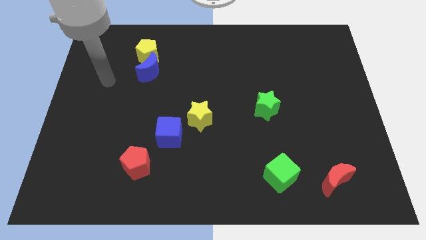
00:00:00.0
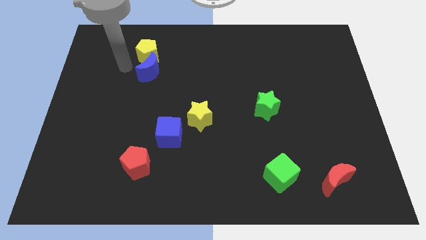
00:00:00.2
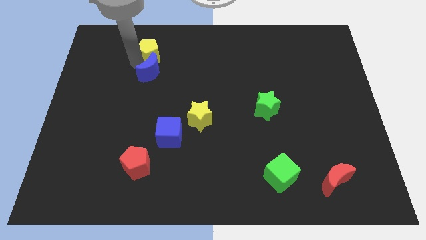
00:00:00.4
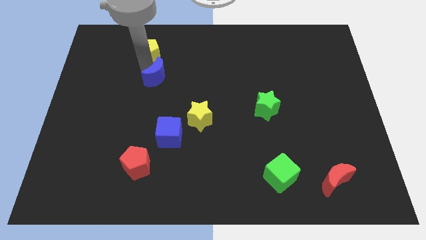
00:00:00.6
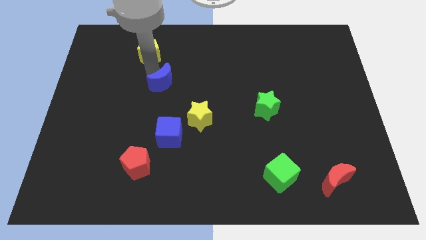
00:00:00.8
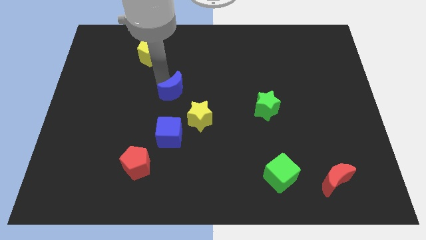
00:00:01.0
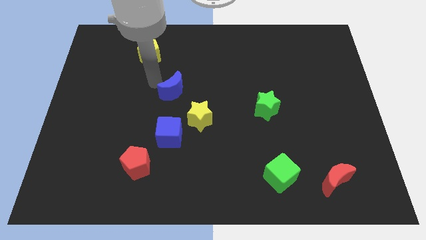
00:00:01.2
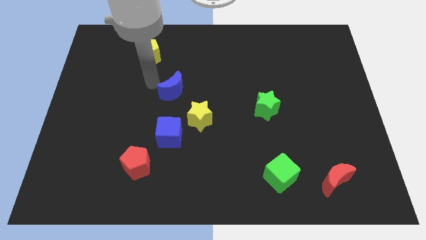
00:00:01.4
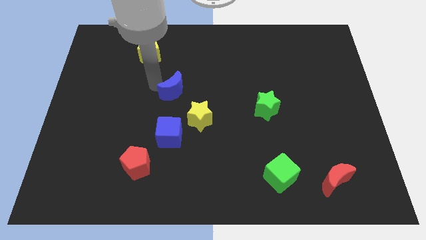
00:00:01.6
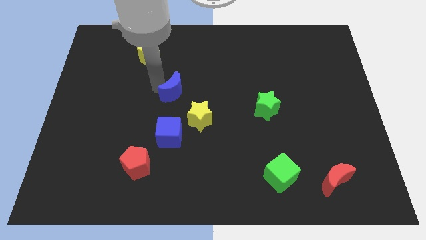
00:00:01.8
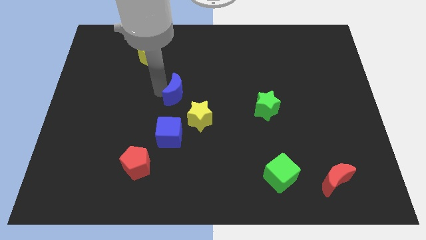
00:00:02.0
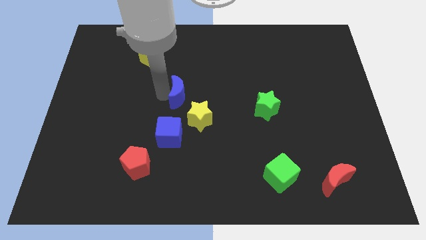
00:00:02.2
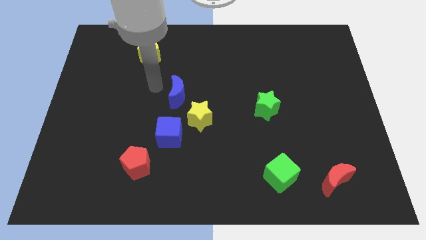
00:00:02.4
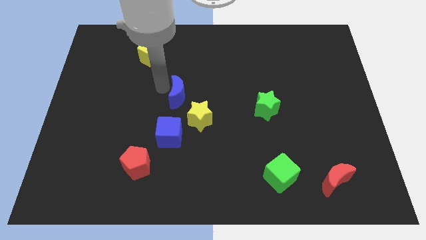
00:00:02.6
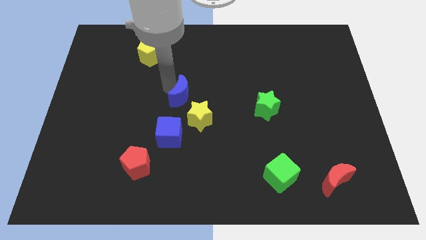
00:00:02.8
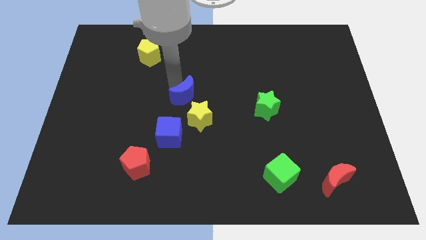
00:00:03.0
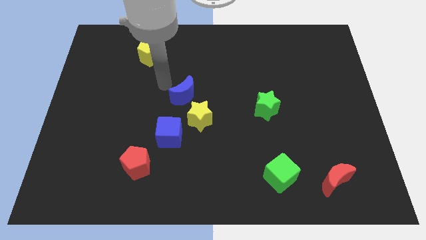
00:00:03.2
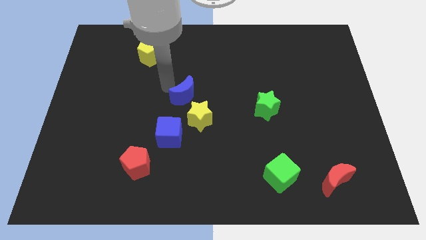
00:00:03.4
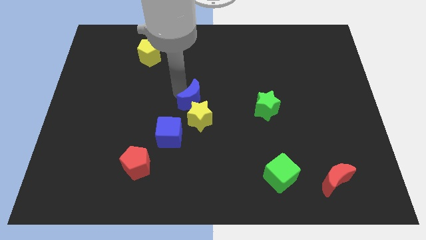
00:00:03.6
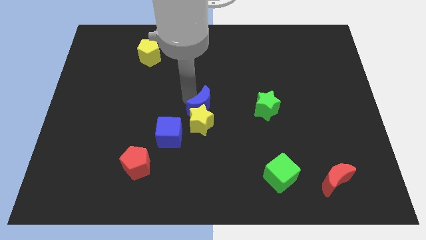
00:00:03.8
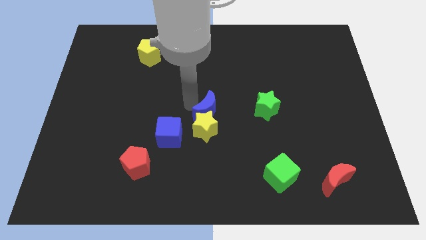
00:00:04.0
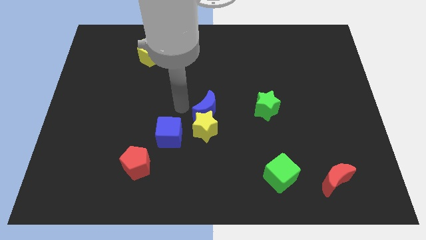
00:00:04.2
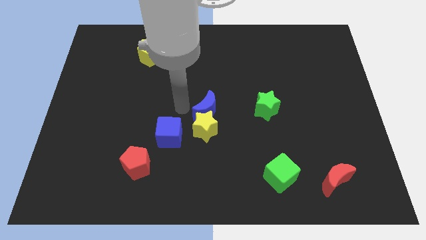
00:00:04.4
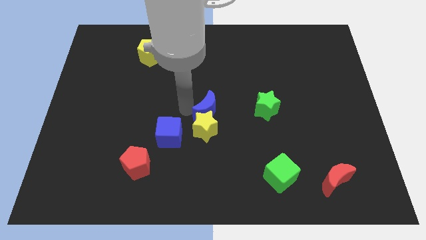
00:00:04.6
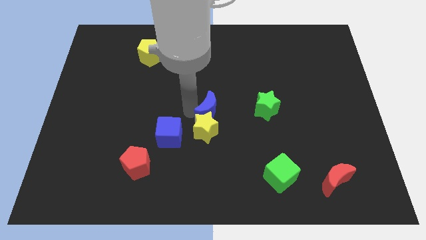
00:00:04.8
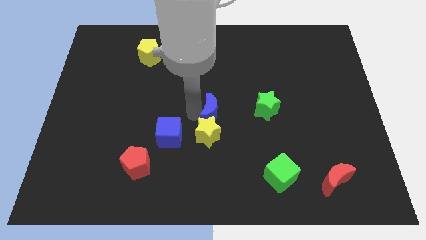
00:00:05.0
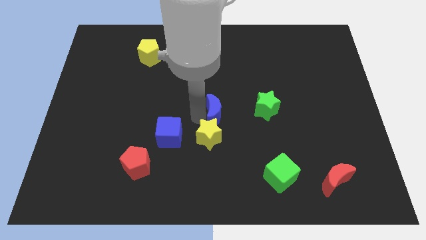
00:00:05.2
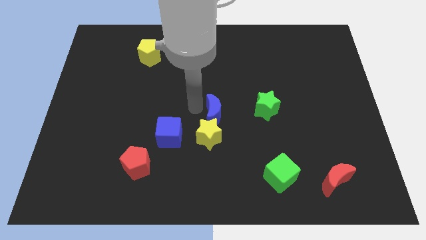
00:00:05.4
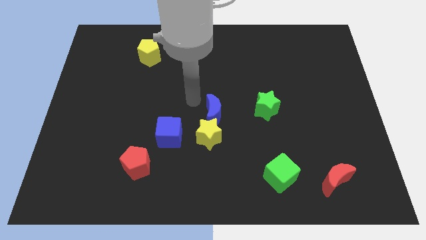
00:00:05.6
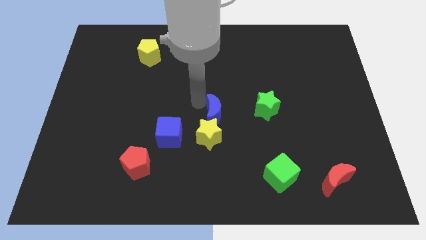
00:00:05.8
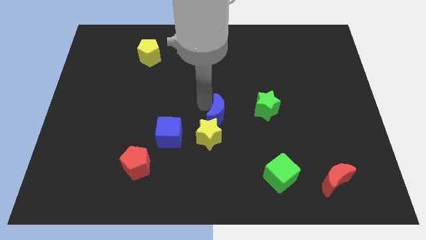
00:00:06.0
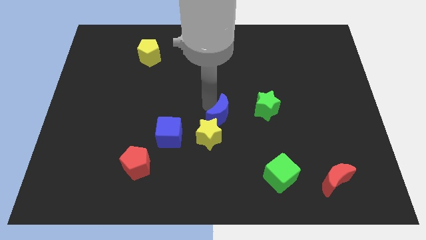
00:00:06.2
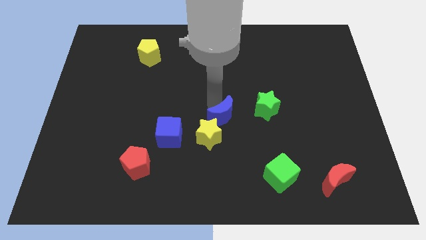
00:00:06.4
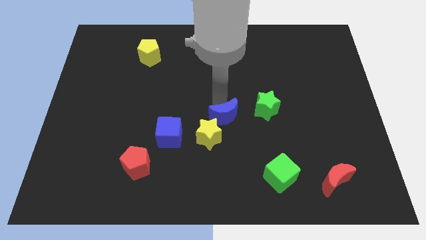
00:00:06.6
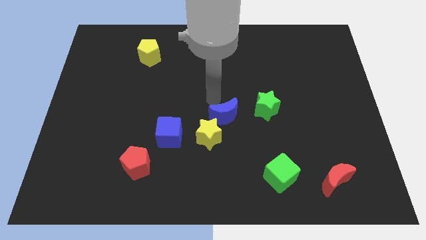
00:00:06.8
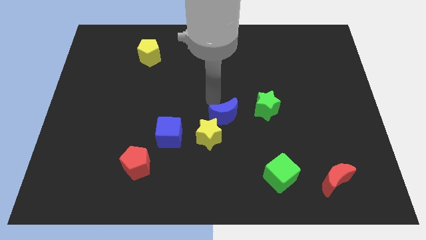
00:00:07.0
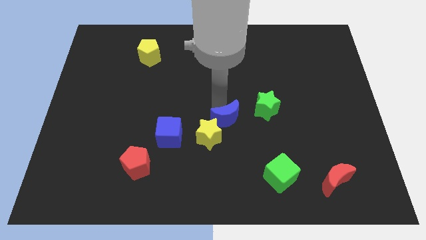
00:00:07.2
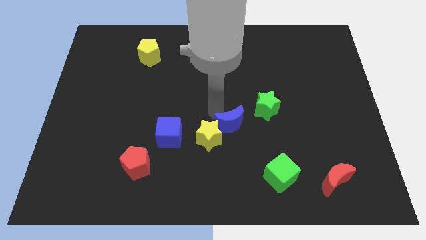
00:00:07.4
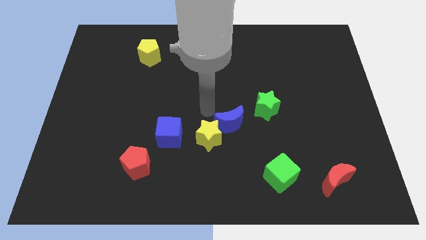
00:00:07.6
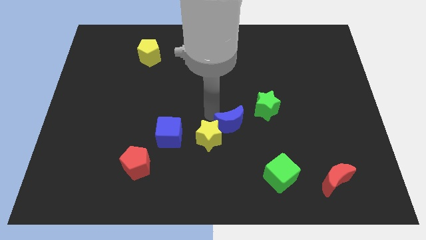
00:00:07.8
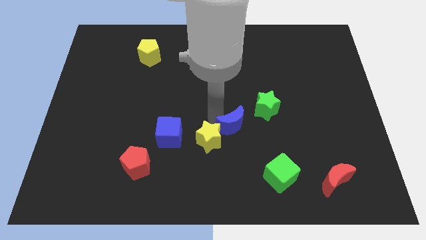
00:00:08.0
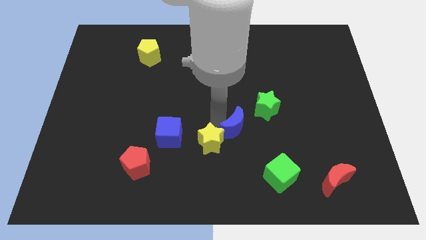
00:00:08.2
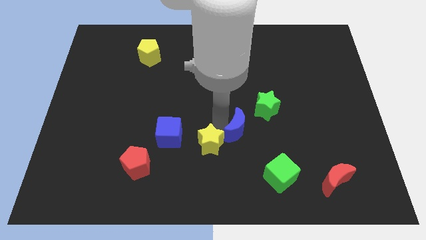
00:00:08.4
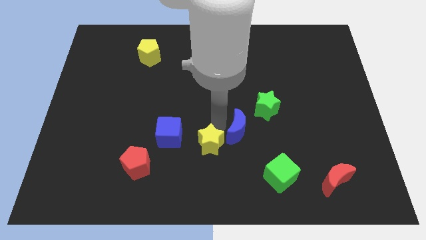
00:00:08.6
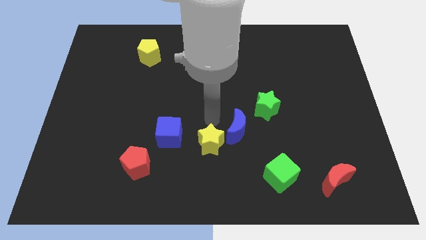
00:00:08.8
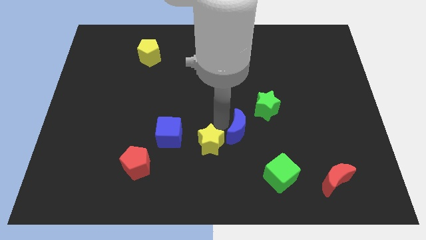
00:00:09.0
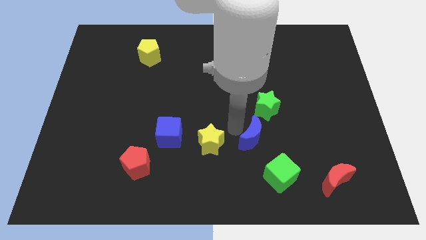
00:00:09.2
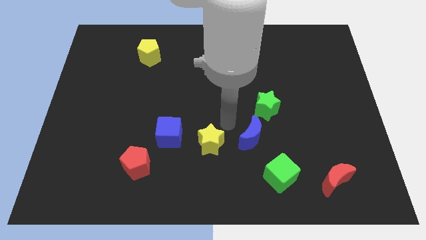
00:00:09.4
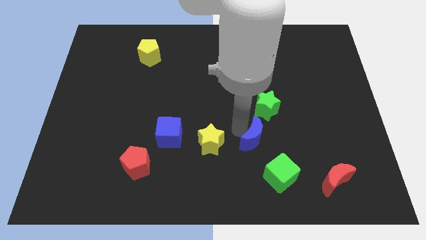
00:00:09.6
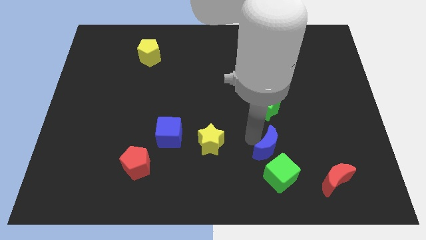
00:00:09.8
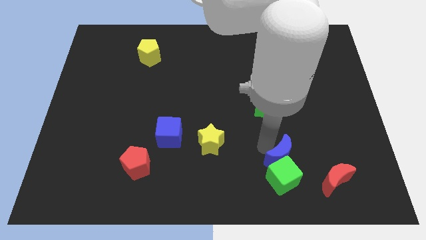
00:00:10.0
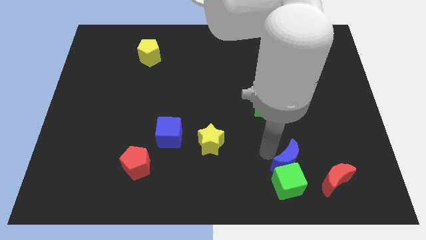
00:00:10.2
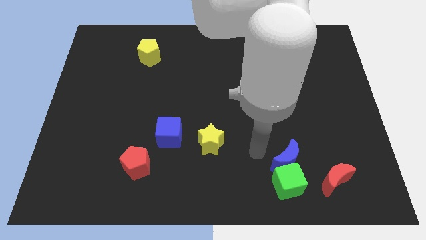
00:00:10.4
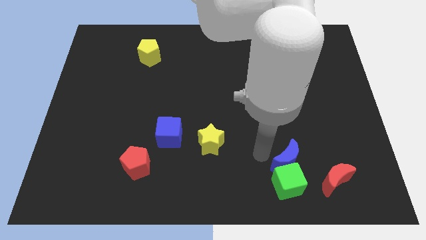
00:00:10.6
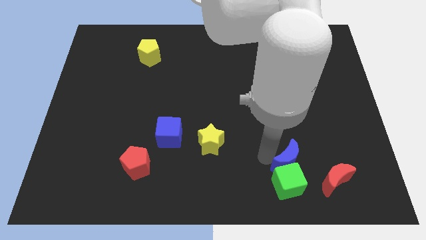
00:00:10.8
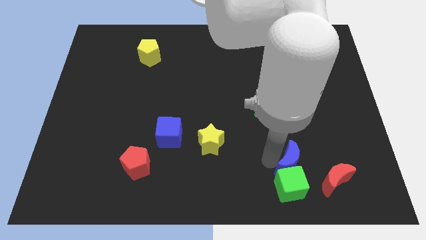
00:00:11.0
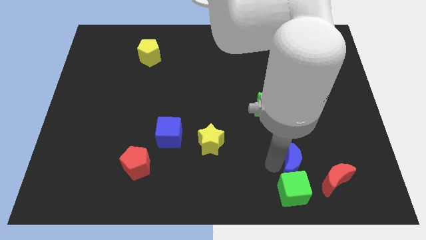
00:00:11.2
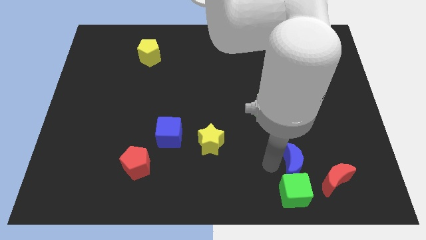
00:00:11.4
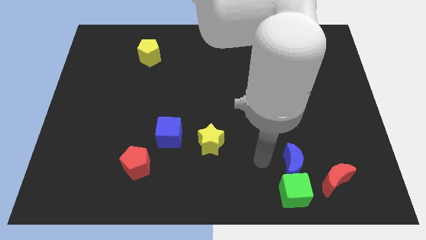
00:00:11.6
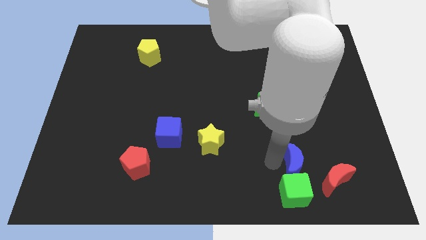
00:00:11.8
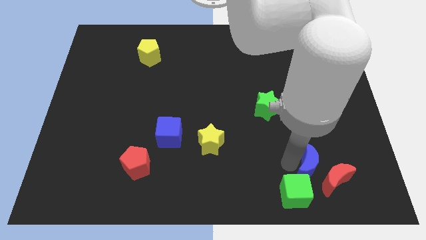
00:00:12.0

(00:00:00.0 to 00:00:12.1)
slide the blue moon to the red moon
